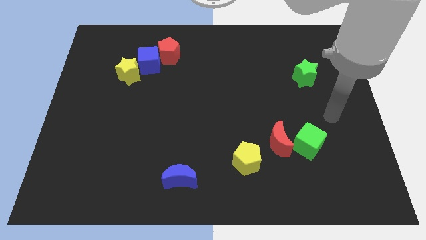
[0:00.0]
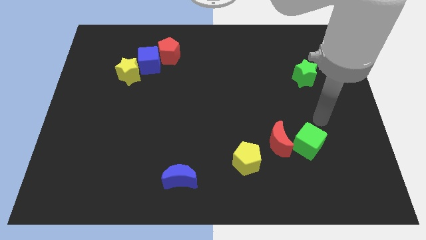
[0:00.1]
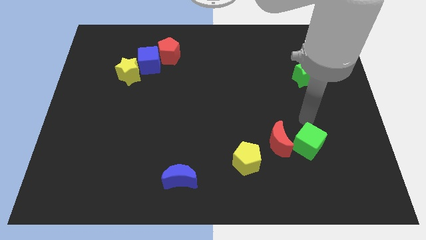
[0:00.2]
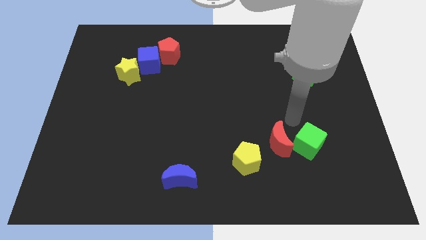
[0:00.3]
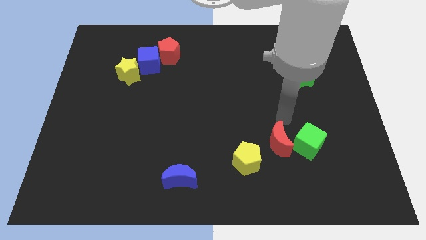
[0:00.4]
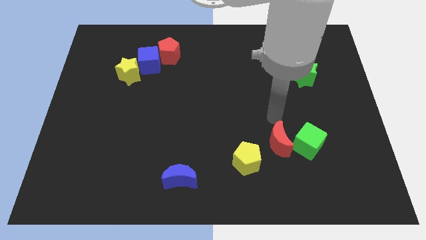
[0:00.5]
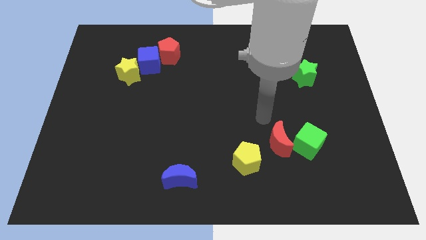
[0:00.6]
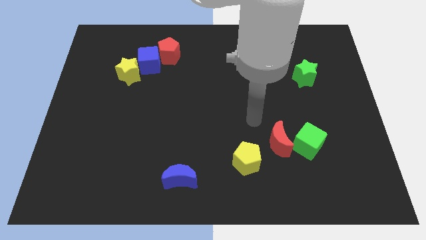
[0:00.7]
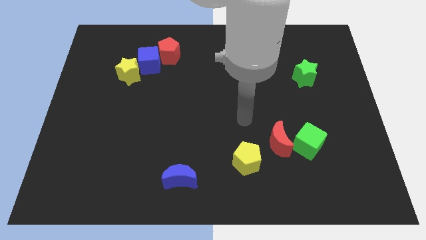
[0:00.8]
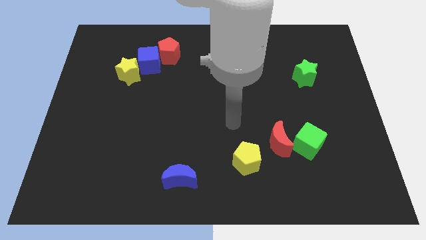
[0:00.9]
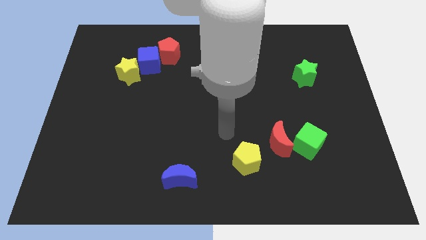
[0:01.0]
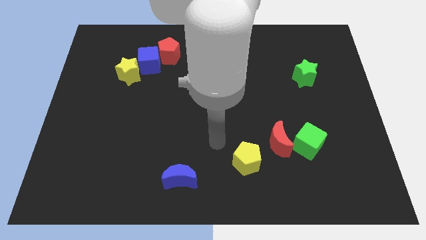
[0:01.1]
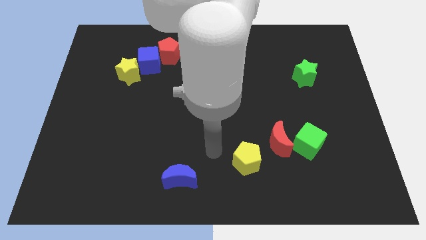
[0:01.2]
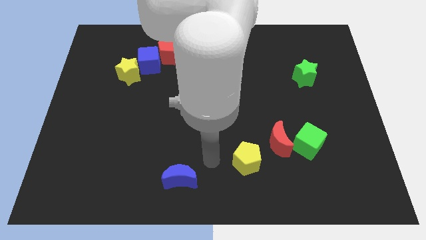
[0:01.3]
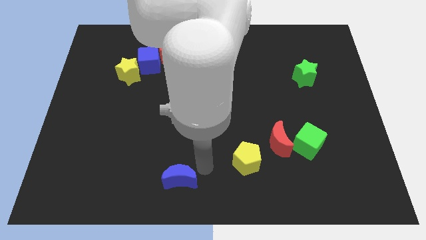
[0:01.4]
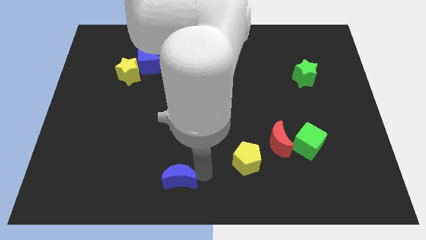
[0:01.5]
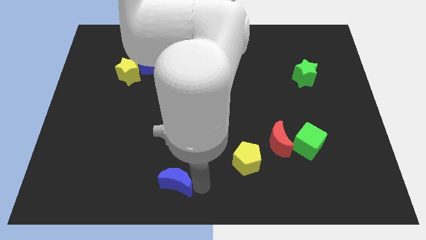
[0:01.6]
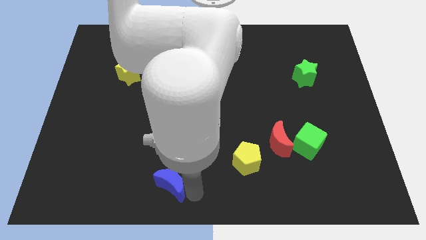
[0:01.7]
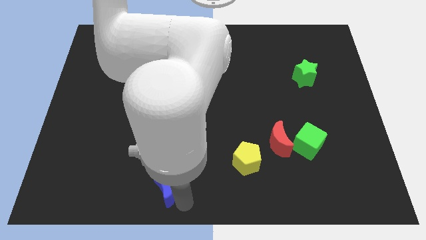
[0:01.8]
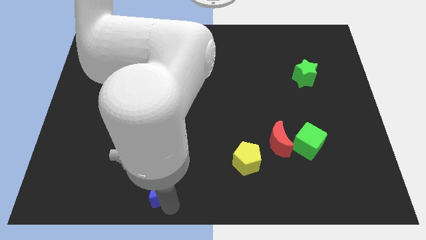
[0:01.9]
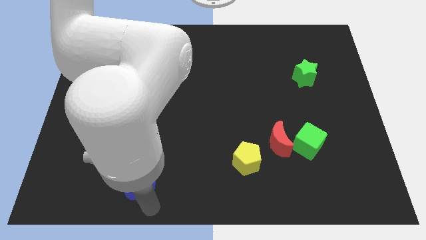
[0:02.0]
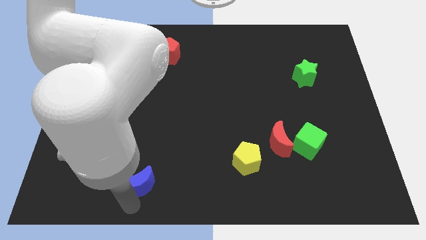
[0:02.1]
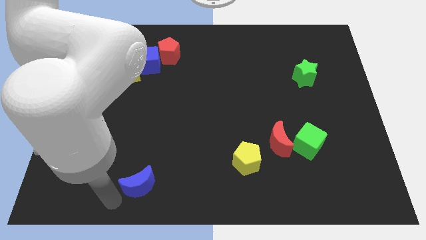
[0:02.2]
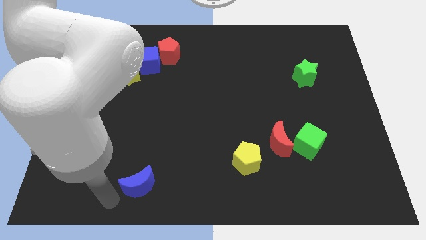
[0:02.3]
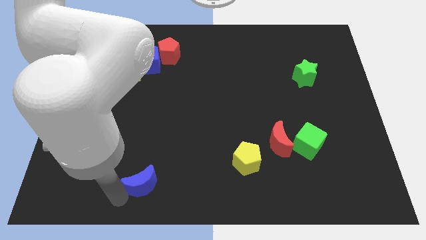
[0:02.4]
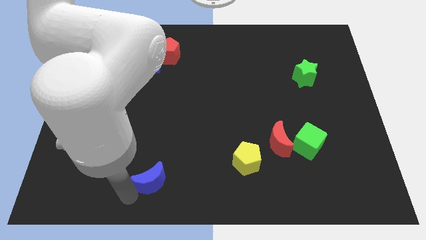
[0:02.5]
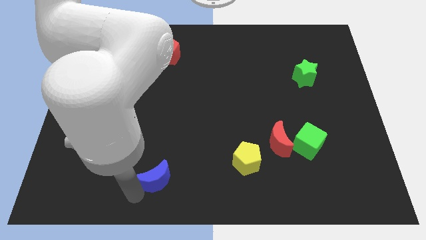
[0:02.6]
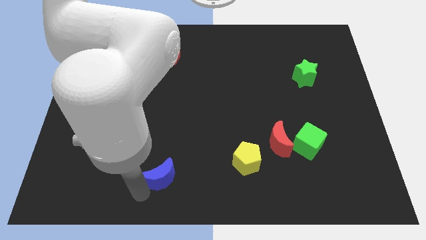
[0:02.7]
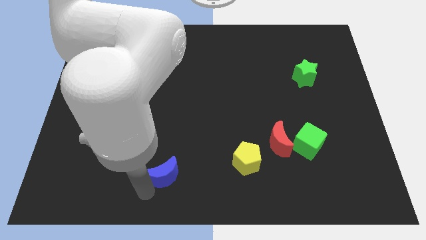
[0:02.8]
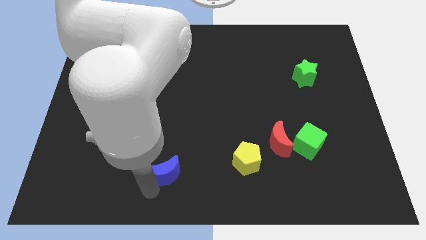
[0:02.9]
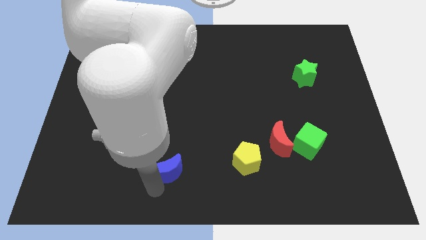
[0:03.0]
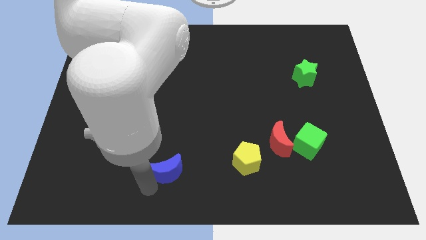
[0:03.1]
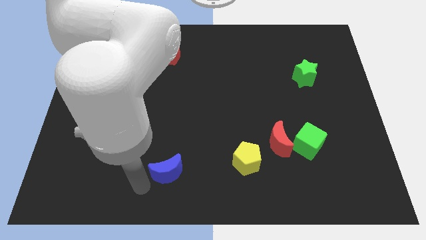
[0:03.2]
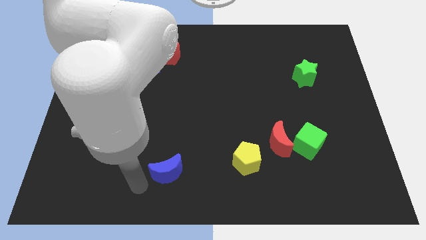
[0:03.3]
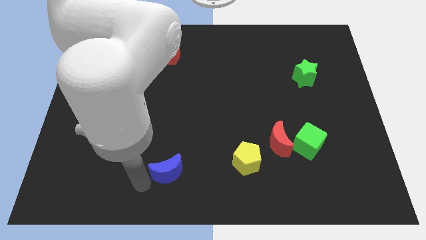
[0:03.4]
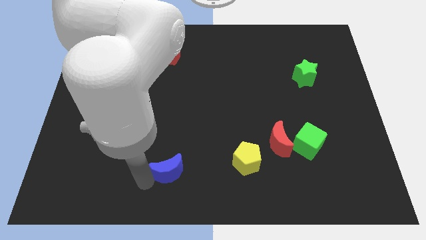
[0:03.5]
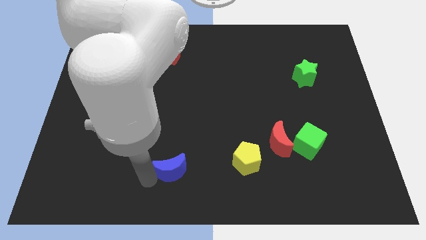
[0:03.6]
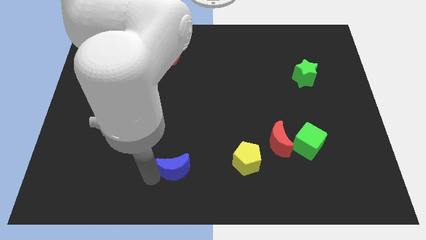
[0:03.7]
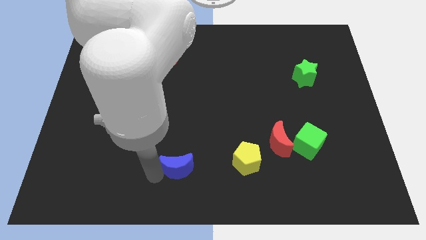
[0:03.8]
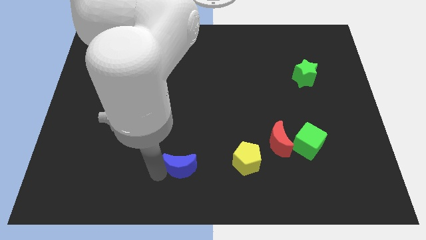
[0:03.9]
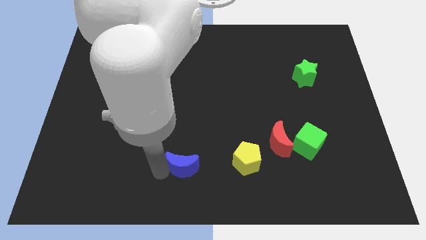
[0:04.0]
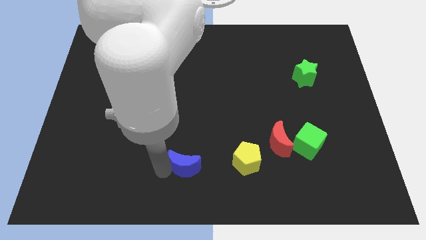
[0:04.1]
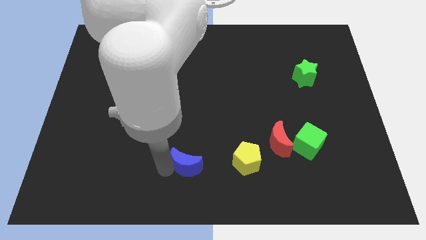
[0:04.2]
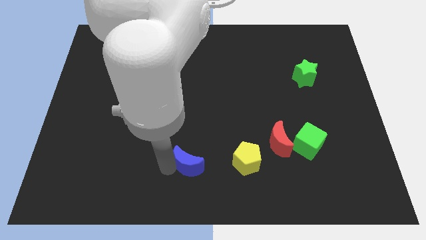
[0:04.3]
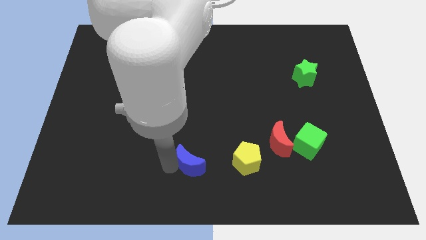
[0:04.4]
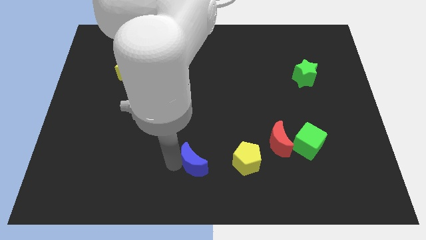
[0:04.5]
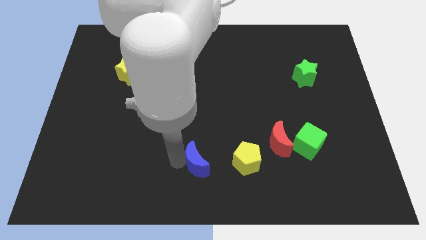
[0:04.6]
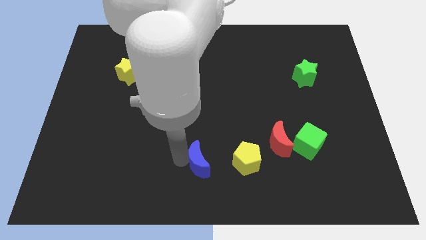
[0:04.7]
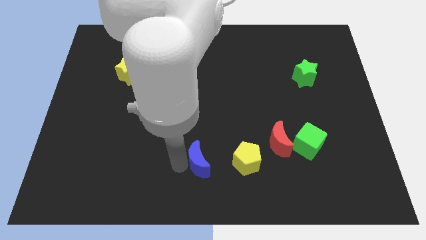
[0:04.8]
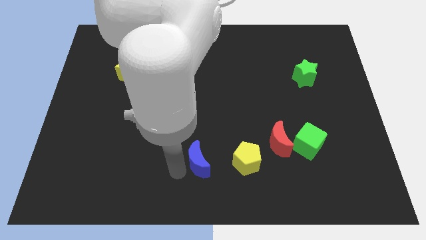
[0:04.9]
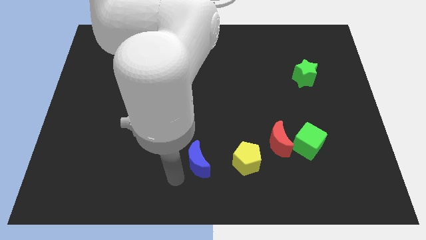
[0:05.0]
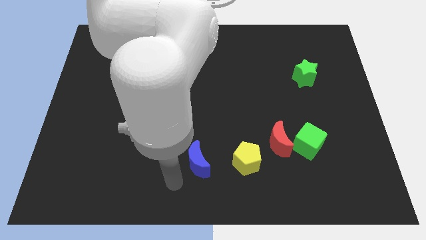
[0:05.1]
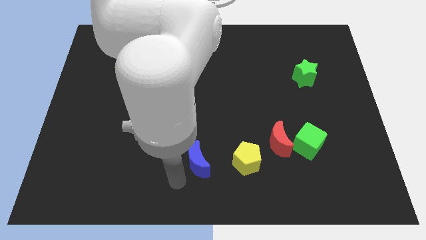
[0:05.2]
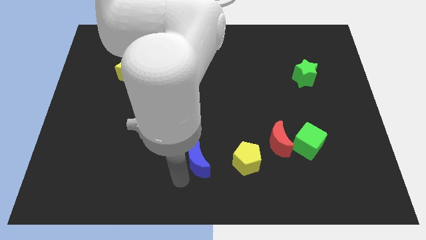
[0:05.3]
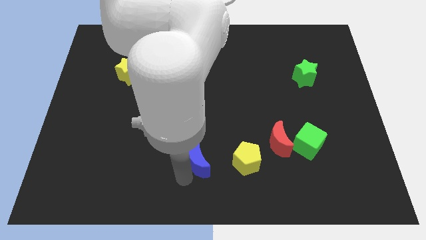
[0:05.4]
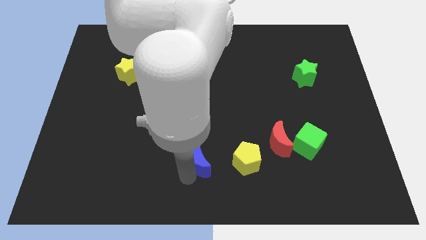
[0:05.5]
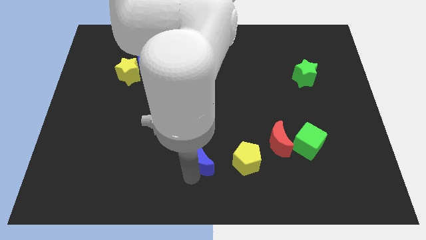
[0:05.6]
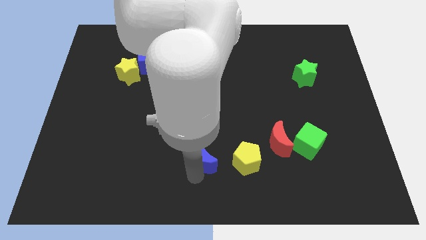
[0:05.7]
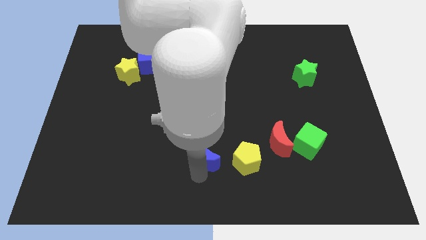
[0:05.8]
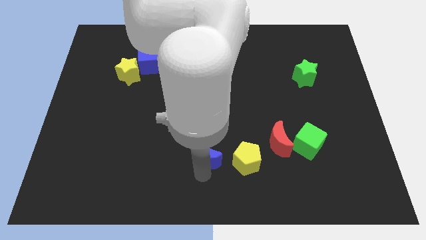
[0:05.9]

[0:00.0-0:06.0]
slightly push the blue moon up and to the right

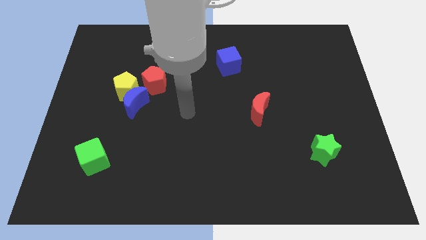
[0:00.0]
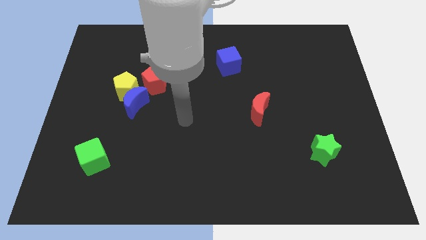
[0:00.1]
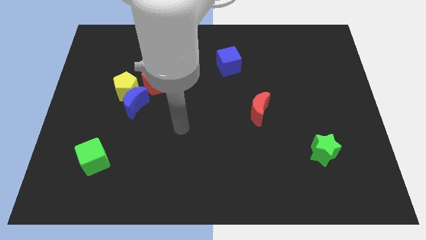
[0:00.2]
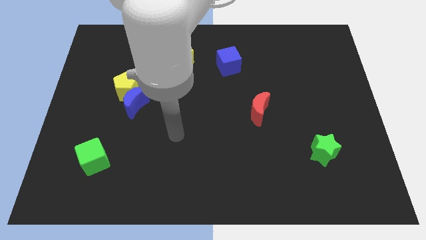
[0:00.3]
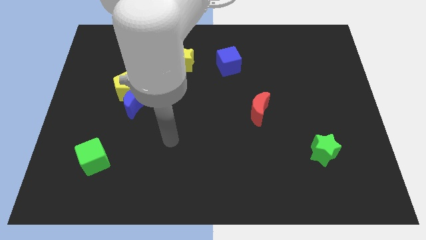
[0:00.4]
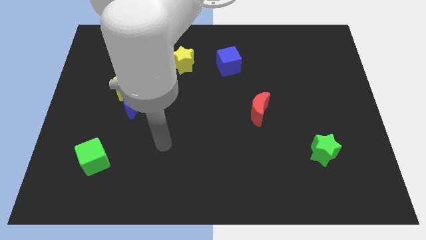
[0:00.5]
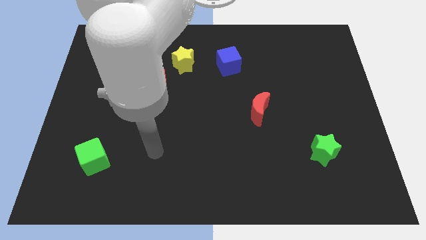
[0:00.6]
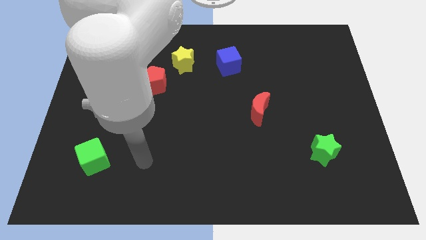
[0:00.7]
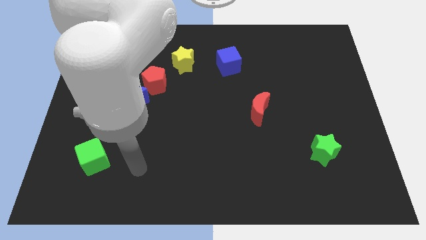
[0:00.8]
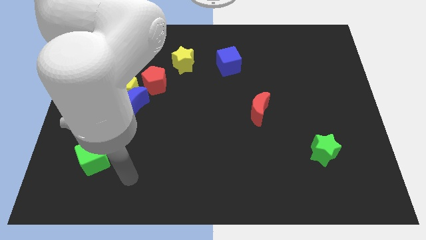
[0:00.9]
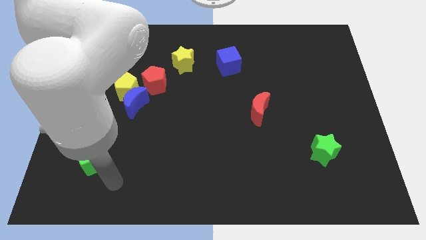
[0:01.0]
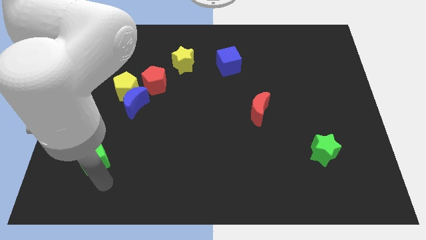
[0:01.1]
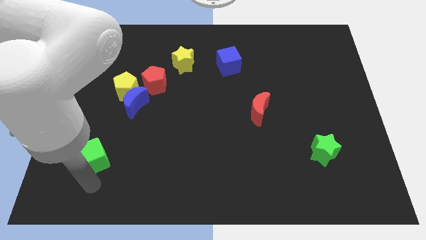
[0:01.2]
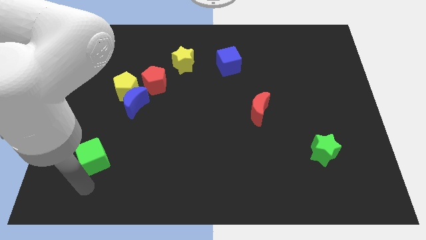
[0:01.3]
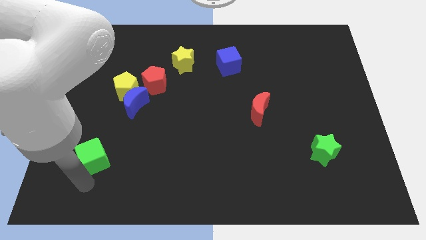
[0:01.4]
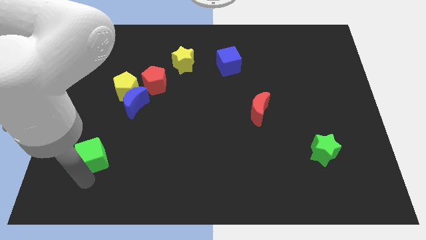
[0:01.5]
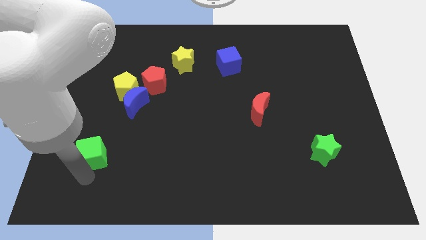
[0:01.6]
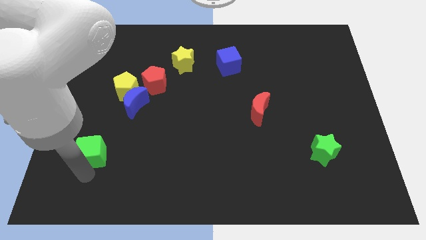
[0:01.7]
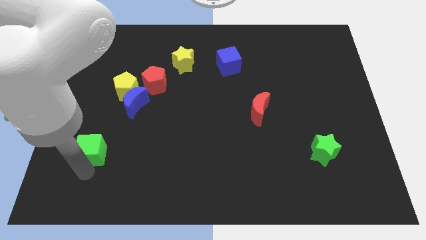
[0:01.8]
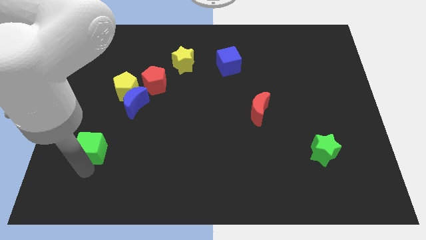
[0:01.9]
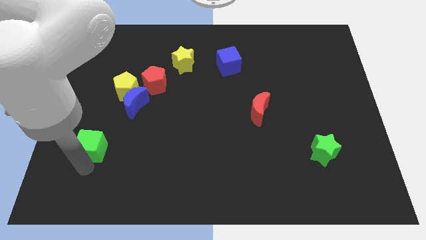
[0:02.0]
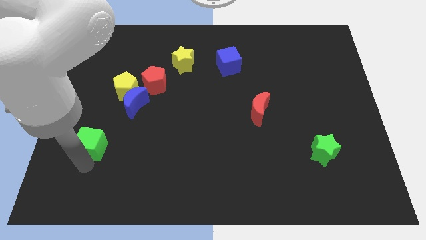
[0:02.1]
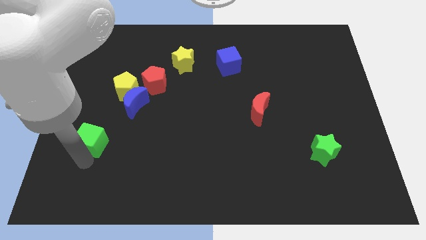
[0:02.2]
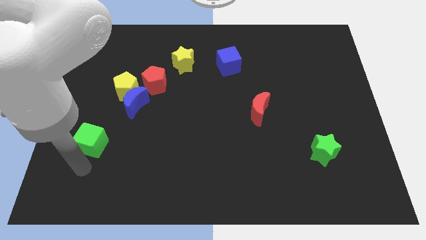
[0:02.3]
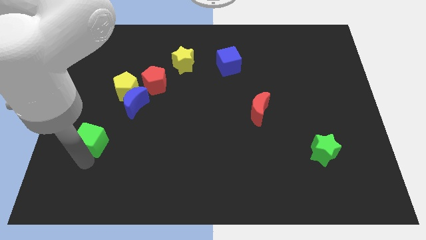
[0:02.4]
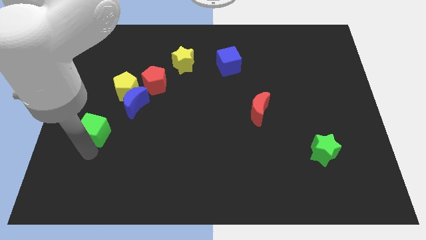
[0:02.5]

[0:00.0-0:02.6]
move the green cube a little upwards
